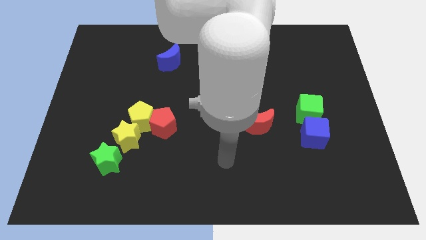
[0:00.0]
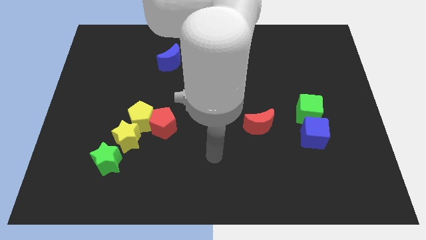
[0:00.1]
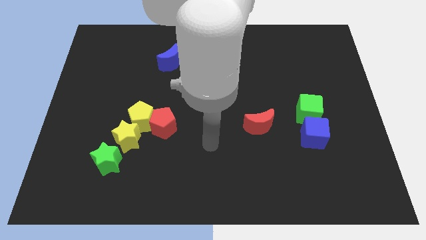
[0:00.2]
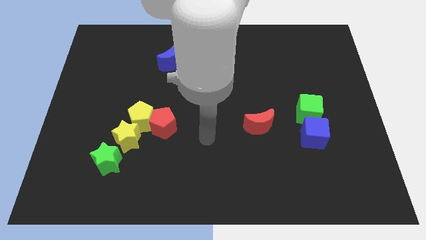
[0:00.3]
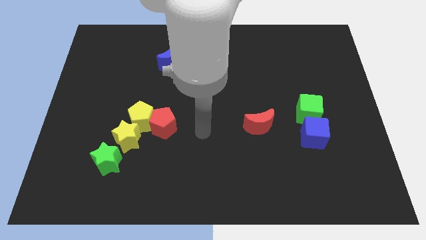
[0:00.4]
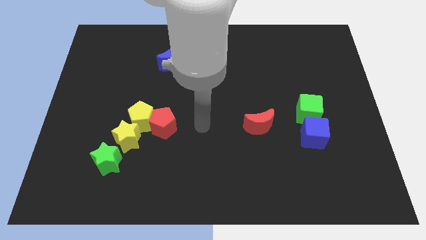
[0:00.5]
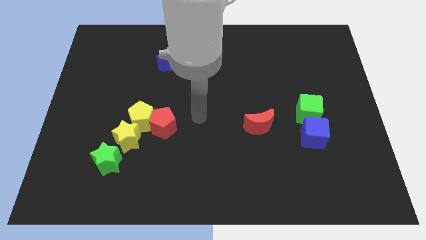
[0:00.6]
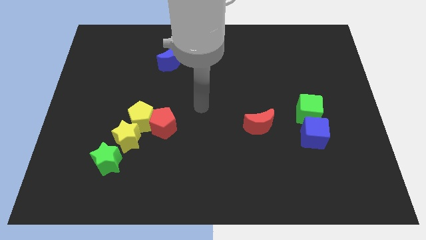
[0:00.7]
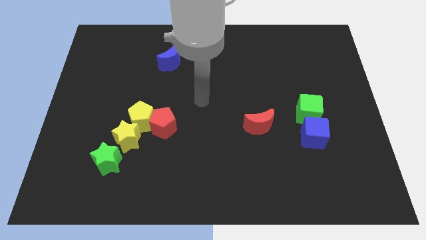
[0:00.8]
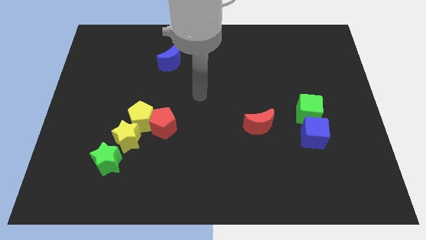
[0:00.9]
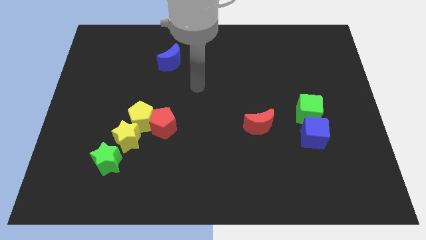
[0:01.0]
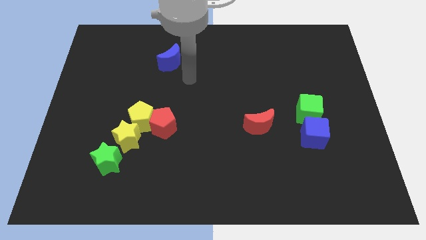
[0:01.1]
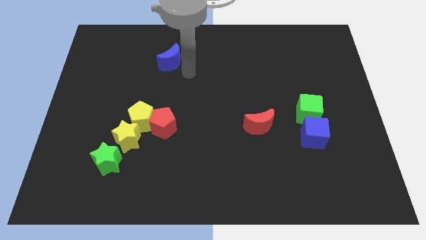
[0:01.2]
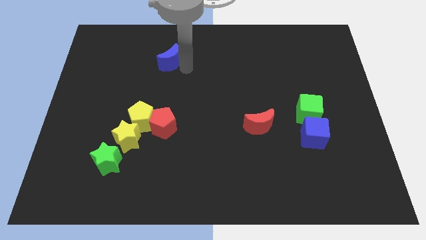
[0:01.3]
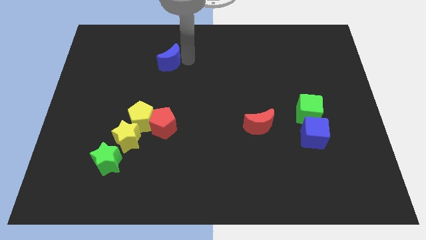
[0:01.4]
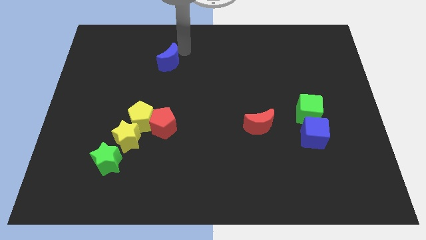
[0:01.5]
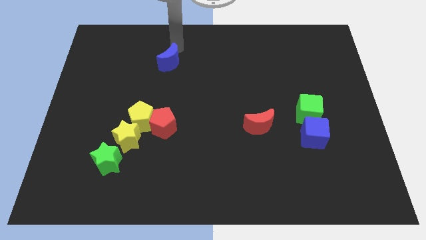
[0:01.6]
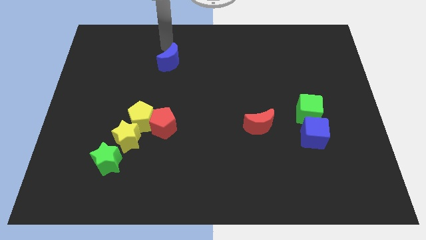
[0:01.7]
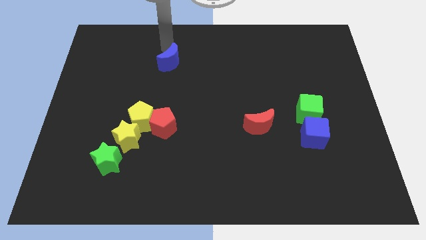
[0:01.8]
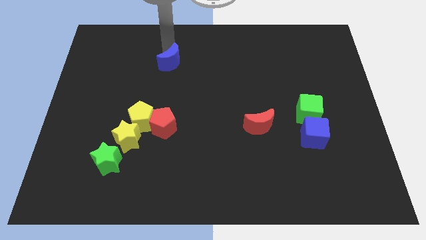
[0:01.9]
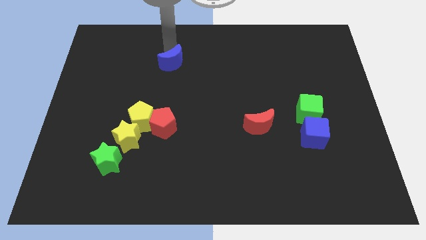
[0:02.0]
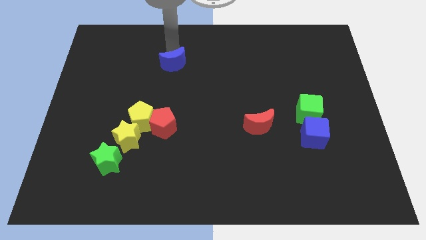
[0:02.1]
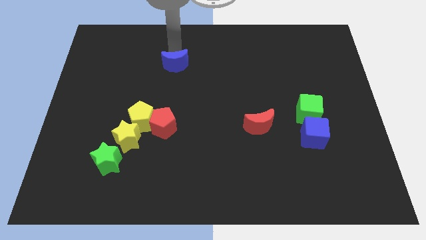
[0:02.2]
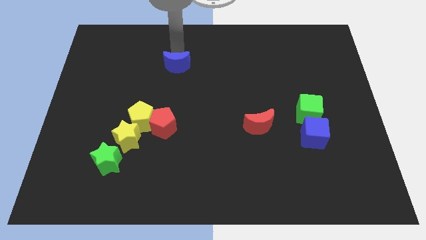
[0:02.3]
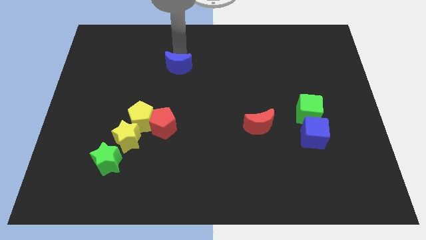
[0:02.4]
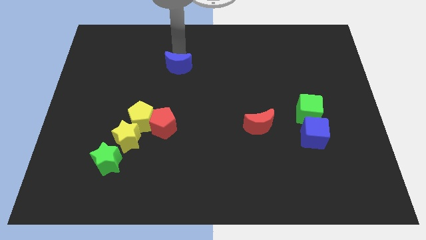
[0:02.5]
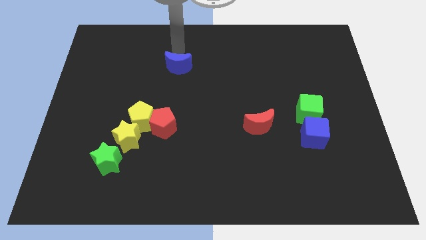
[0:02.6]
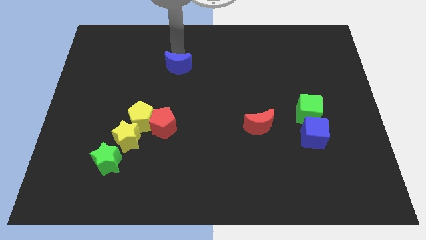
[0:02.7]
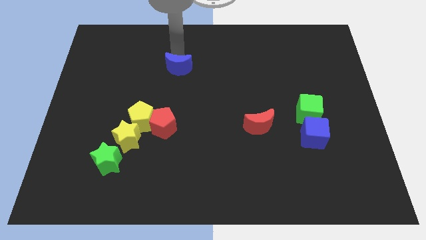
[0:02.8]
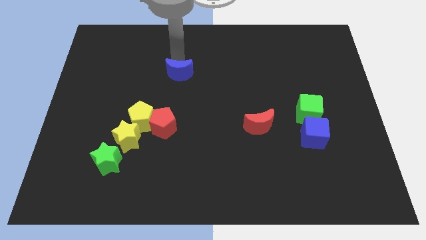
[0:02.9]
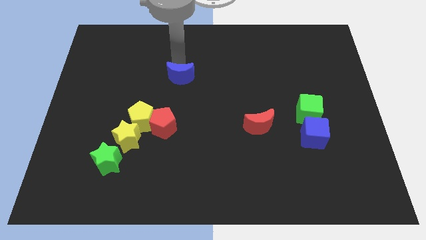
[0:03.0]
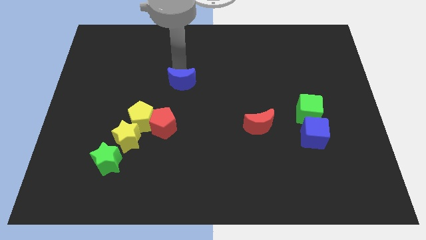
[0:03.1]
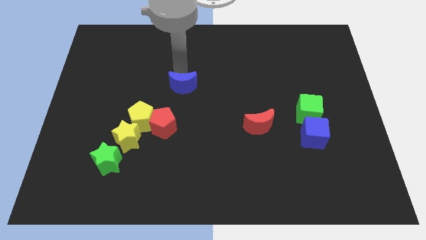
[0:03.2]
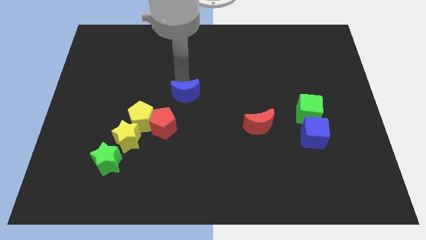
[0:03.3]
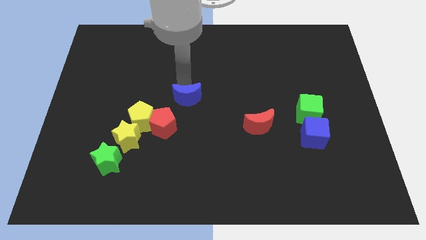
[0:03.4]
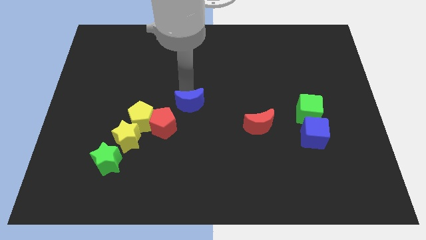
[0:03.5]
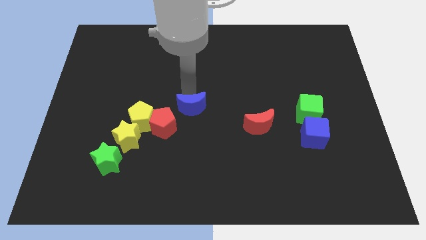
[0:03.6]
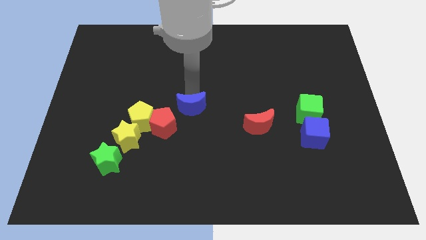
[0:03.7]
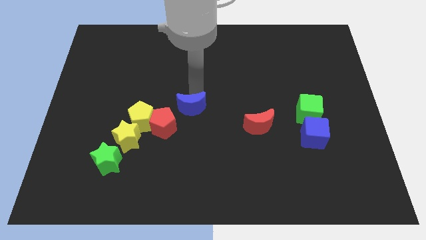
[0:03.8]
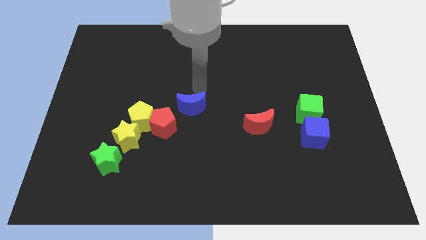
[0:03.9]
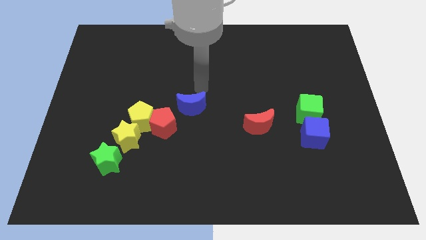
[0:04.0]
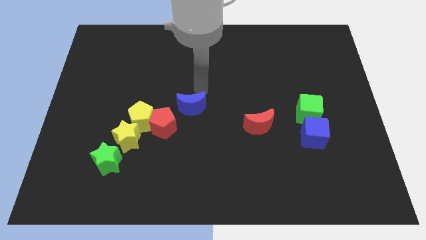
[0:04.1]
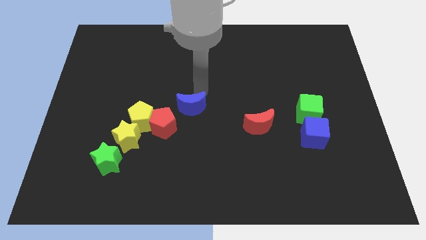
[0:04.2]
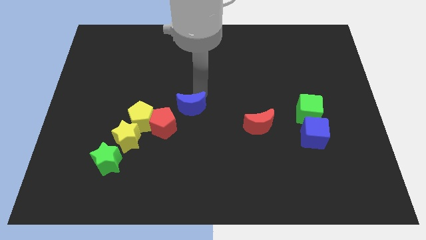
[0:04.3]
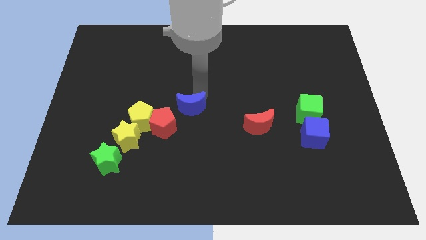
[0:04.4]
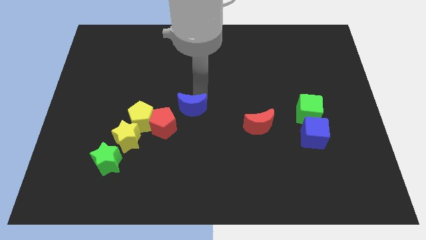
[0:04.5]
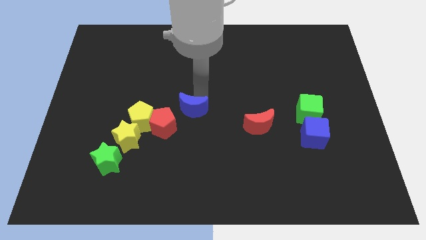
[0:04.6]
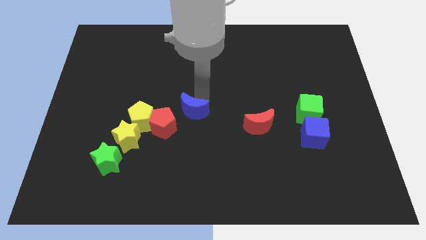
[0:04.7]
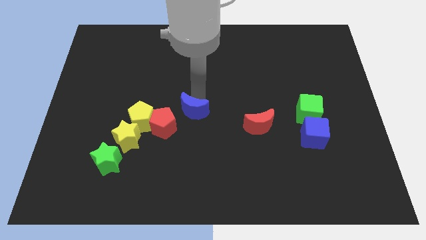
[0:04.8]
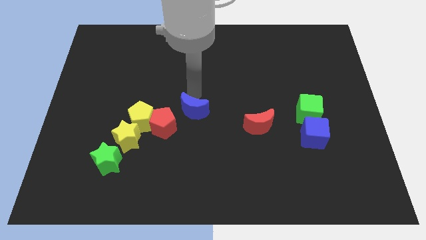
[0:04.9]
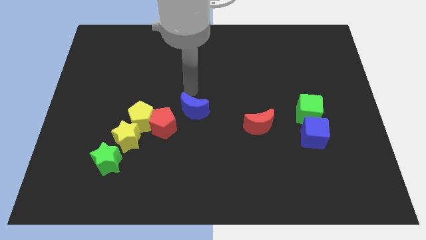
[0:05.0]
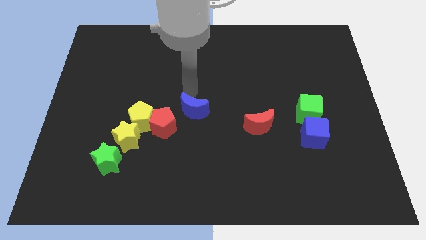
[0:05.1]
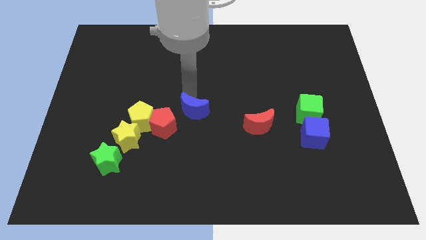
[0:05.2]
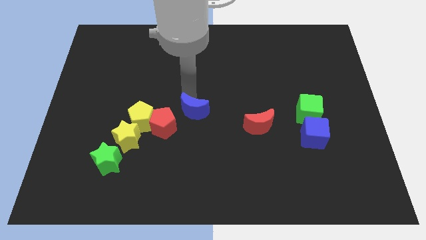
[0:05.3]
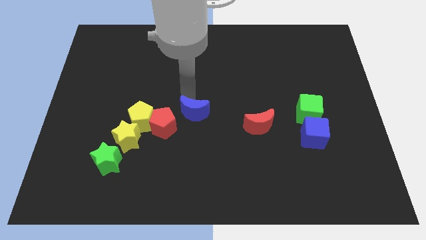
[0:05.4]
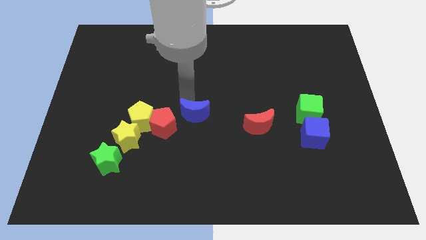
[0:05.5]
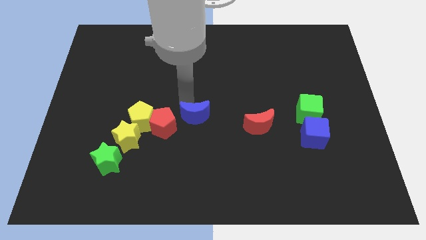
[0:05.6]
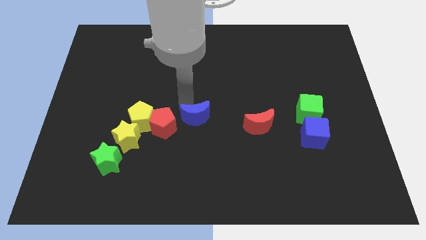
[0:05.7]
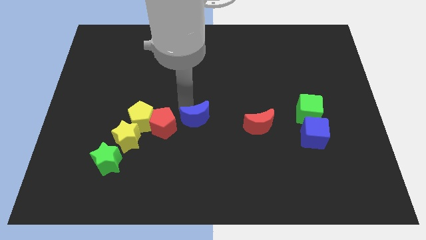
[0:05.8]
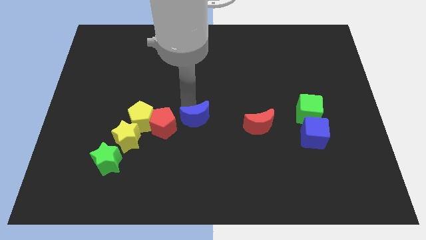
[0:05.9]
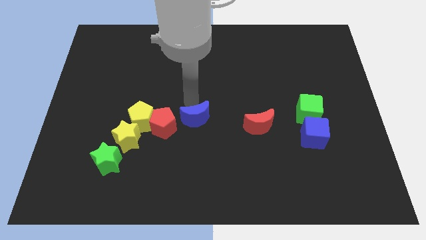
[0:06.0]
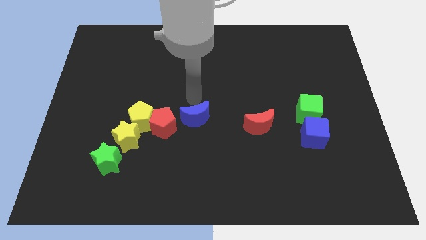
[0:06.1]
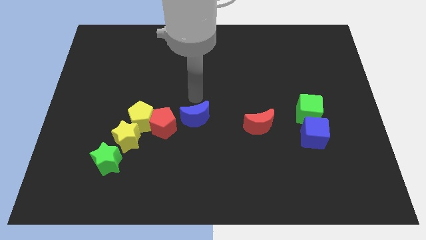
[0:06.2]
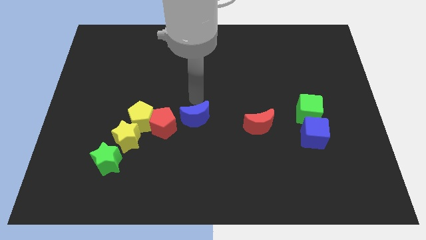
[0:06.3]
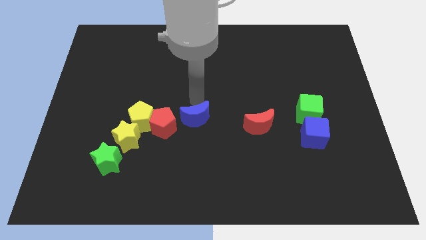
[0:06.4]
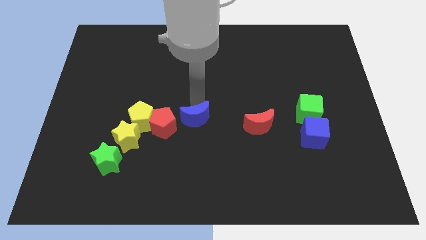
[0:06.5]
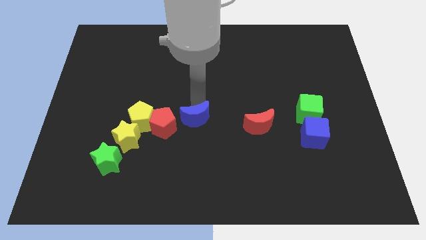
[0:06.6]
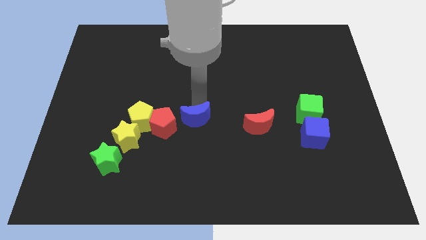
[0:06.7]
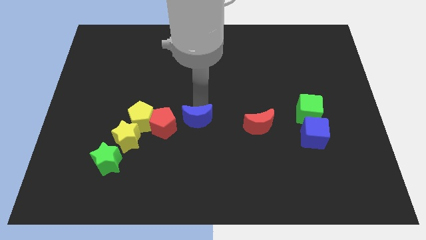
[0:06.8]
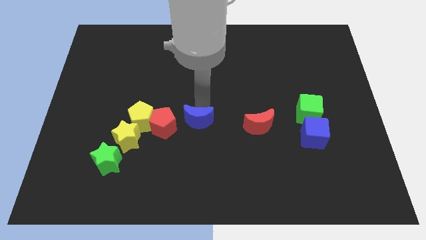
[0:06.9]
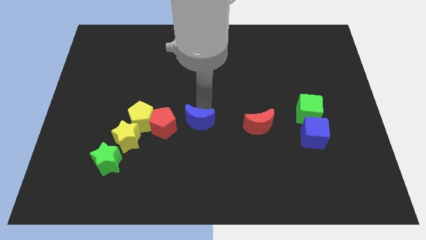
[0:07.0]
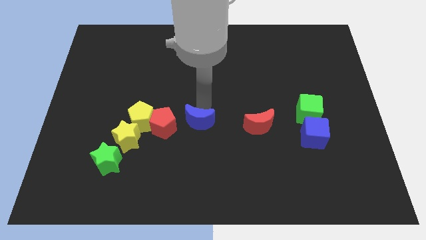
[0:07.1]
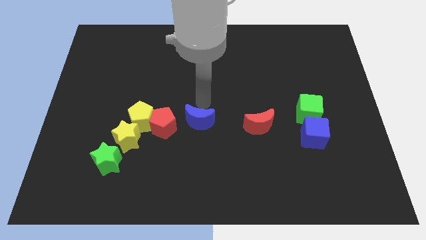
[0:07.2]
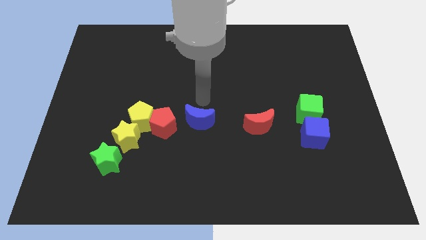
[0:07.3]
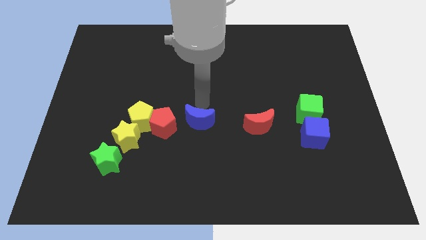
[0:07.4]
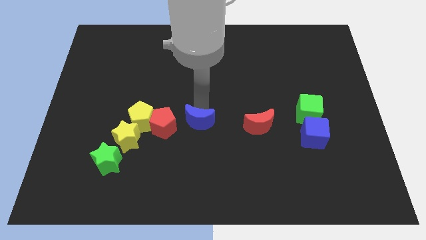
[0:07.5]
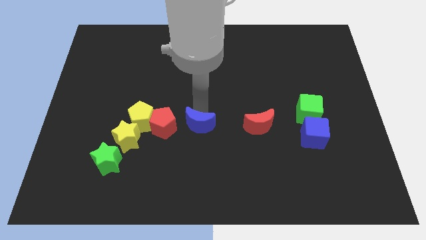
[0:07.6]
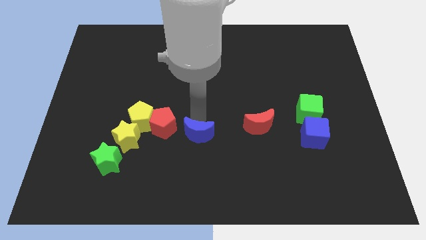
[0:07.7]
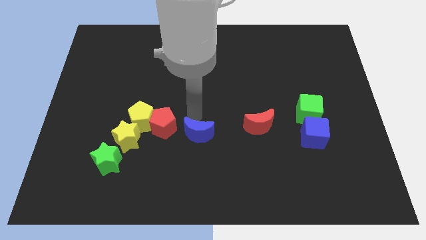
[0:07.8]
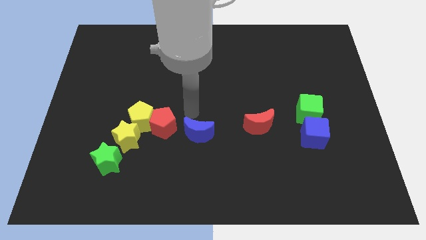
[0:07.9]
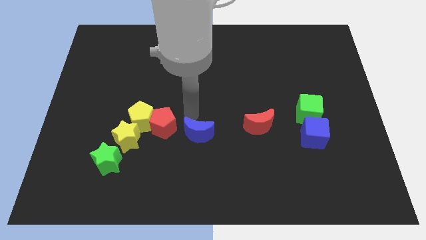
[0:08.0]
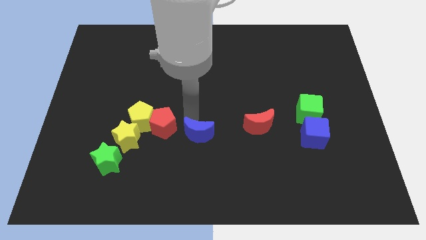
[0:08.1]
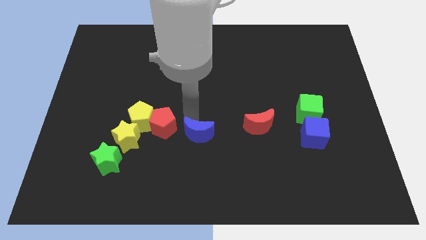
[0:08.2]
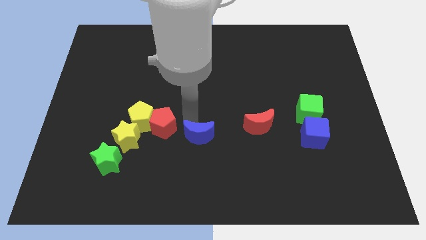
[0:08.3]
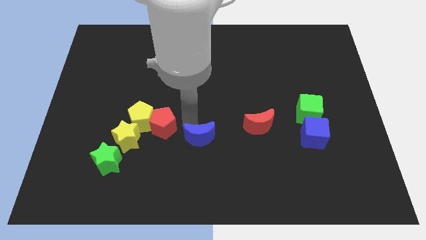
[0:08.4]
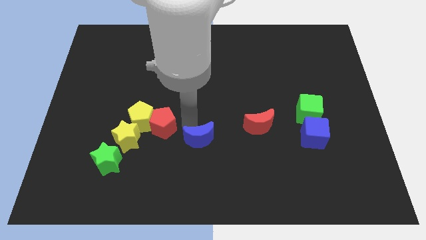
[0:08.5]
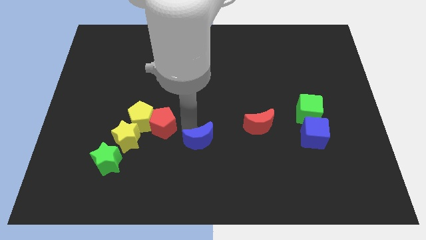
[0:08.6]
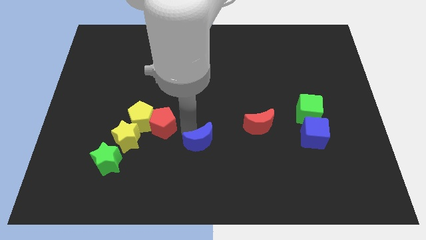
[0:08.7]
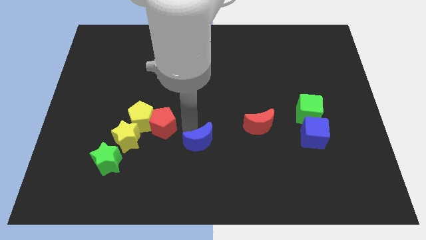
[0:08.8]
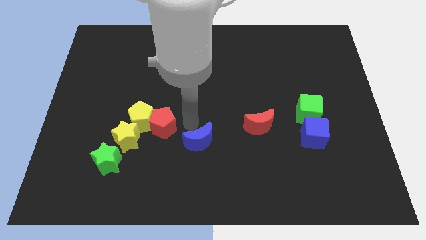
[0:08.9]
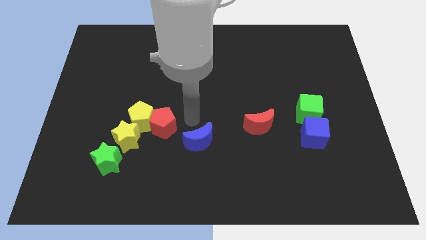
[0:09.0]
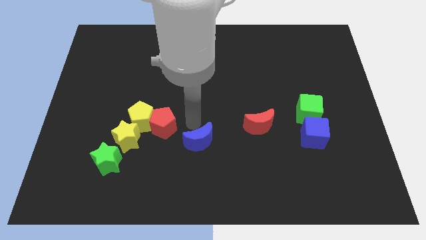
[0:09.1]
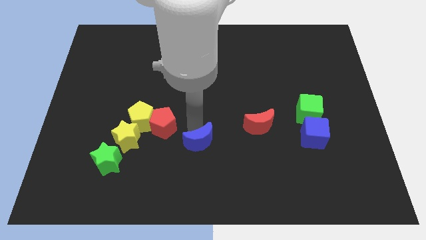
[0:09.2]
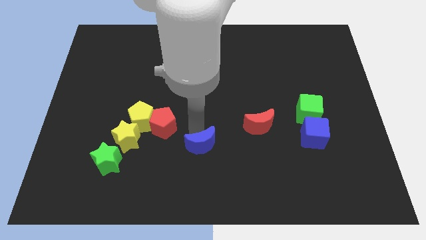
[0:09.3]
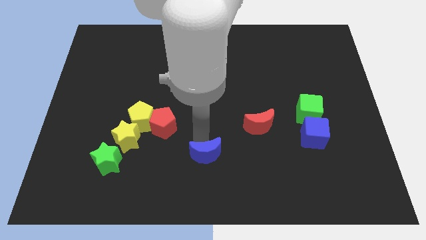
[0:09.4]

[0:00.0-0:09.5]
put the blue moon to the bottom
